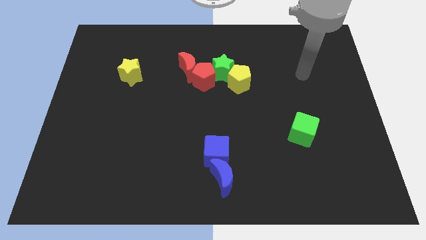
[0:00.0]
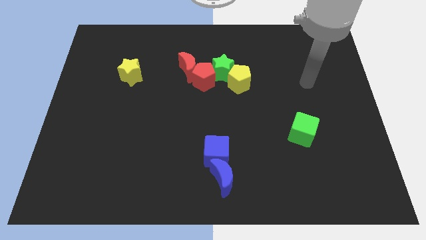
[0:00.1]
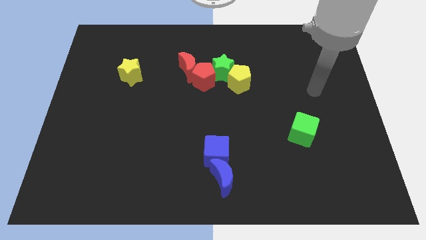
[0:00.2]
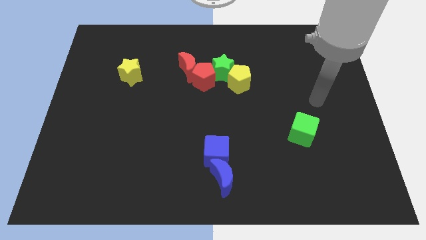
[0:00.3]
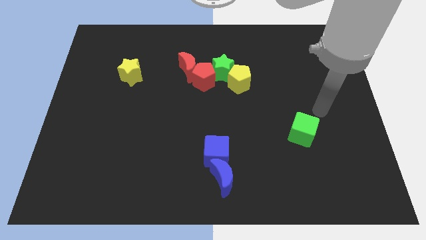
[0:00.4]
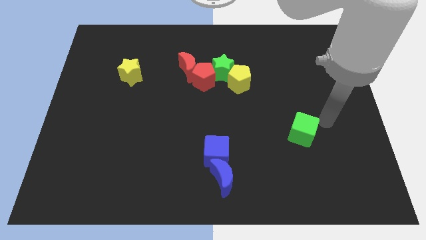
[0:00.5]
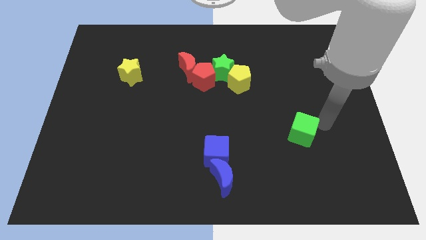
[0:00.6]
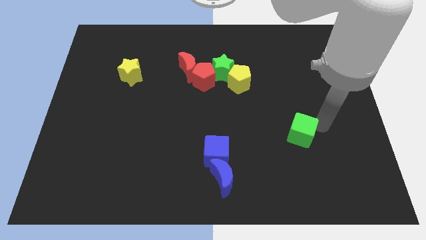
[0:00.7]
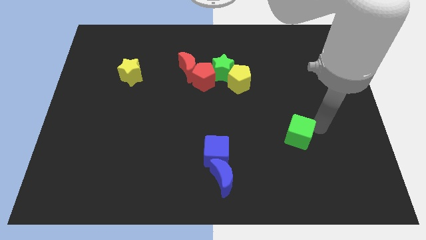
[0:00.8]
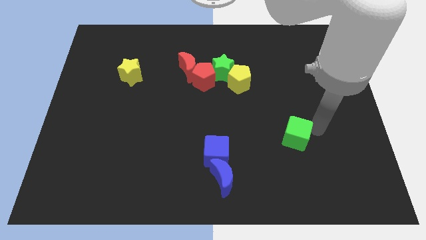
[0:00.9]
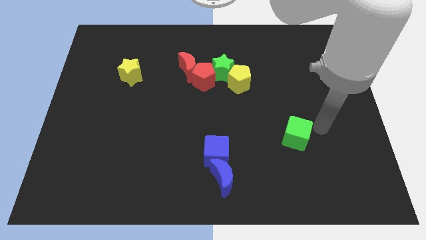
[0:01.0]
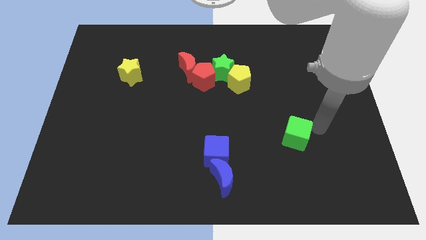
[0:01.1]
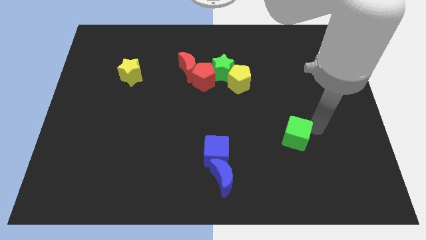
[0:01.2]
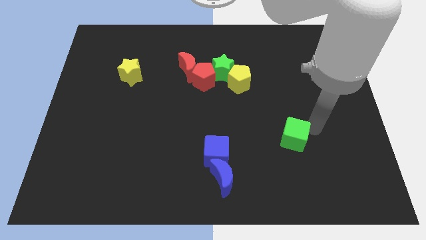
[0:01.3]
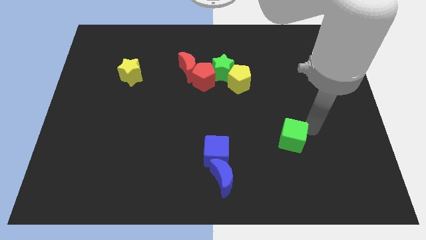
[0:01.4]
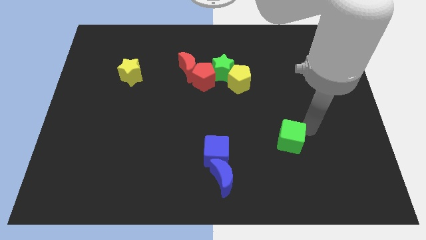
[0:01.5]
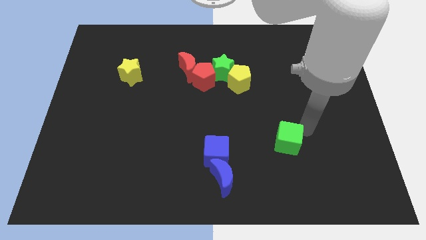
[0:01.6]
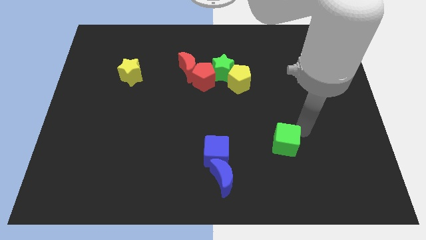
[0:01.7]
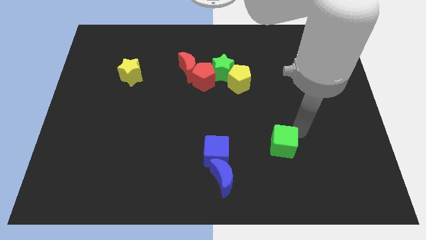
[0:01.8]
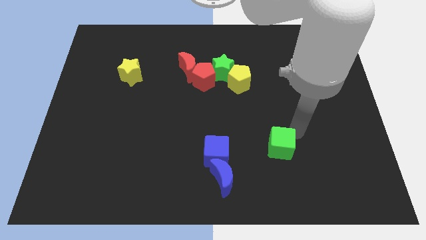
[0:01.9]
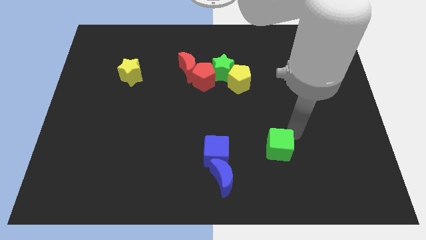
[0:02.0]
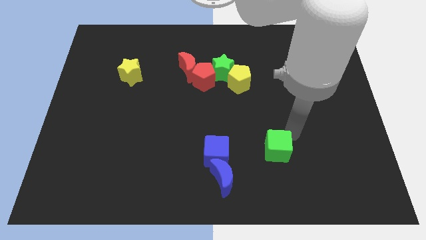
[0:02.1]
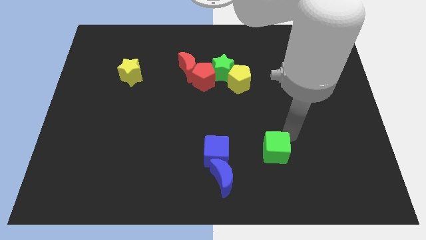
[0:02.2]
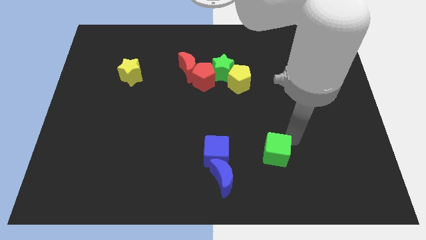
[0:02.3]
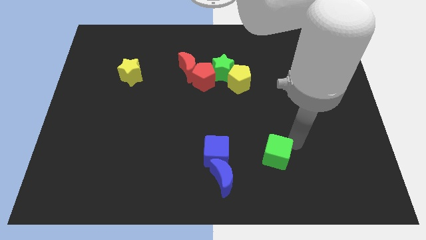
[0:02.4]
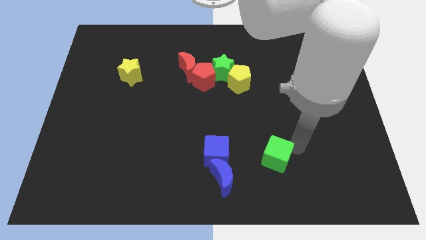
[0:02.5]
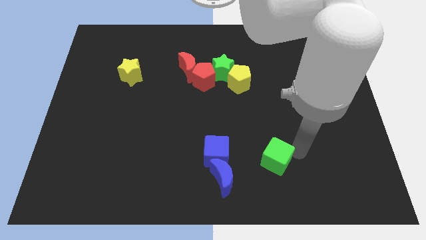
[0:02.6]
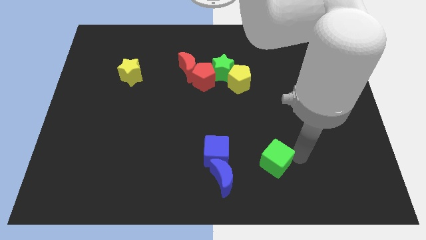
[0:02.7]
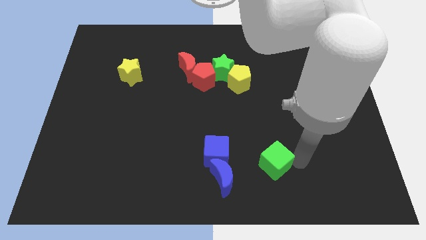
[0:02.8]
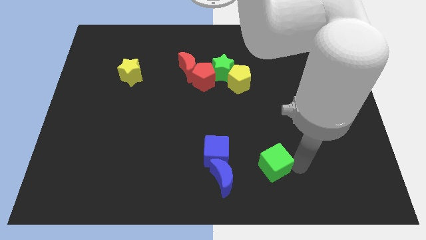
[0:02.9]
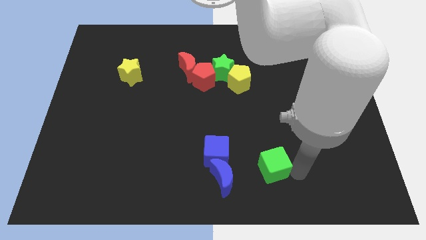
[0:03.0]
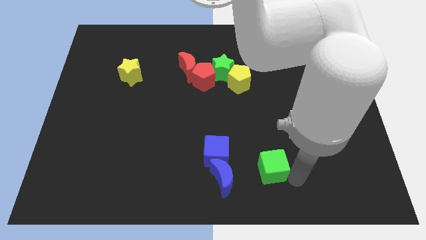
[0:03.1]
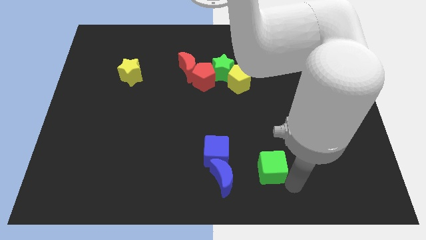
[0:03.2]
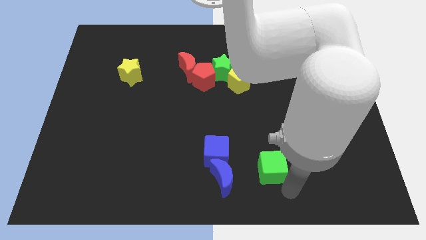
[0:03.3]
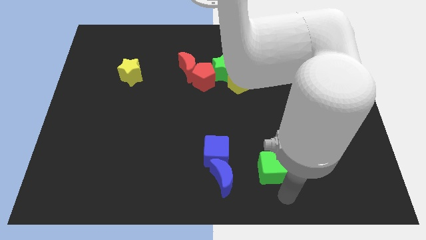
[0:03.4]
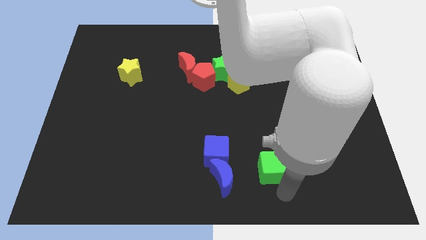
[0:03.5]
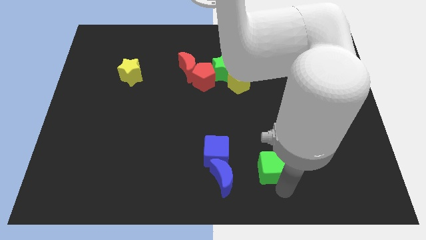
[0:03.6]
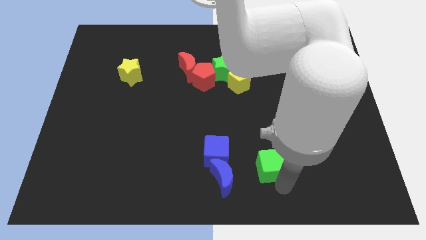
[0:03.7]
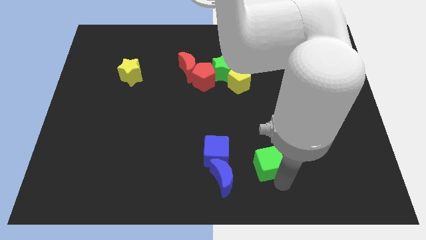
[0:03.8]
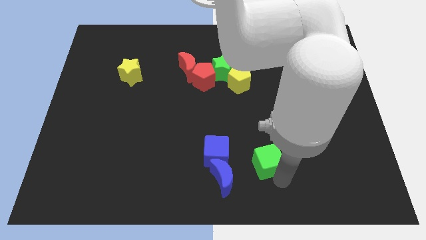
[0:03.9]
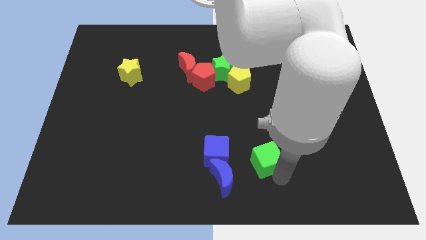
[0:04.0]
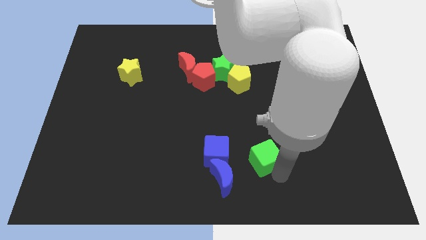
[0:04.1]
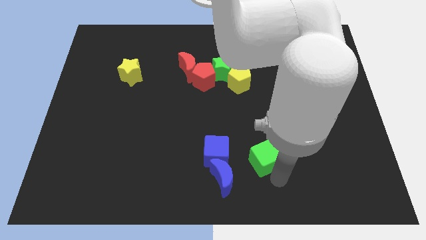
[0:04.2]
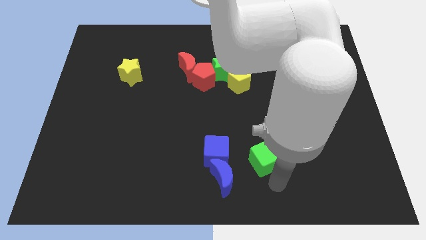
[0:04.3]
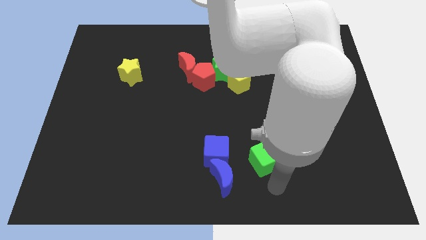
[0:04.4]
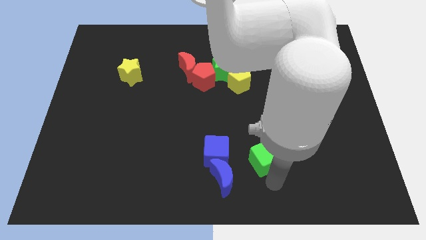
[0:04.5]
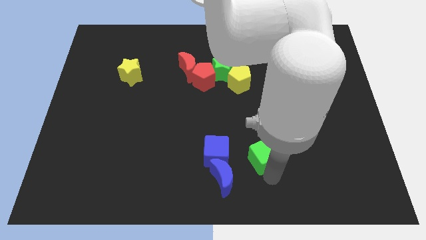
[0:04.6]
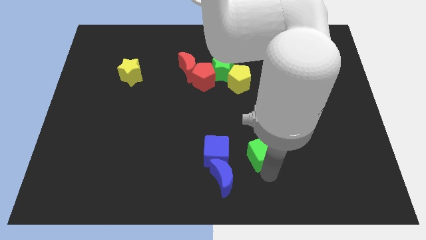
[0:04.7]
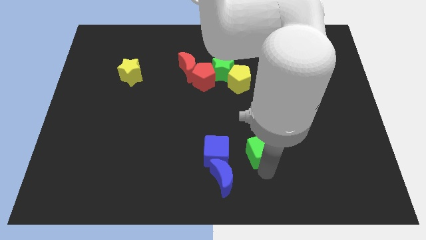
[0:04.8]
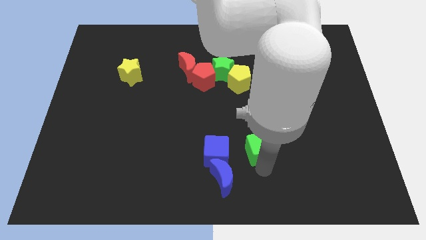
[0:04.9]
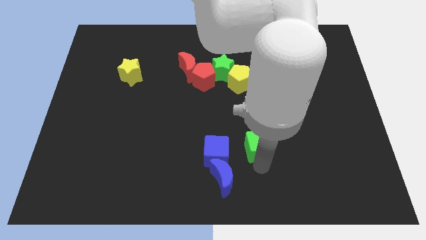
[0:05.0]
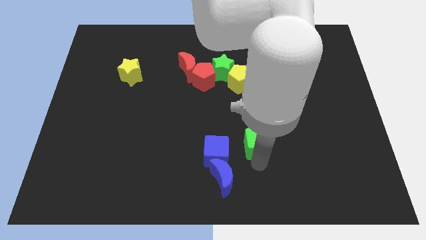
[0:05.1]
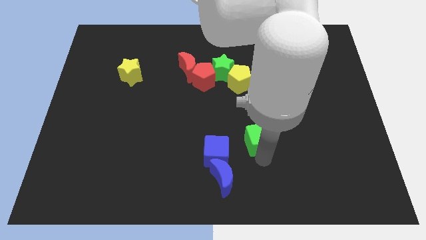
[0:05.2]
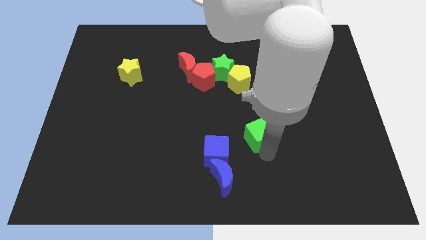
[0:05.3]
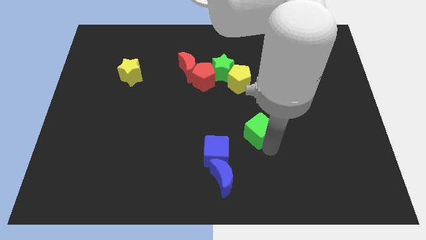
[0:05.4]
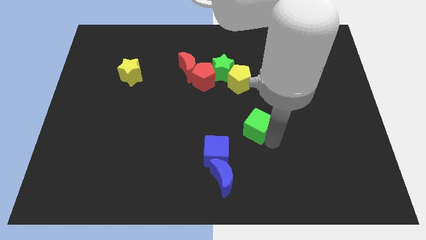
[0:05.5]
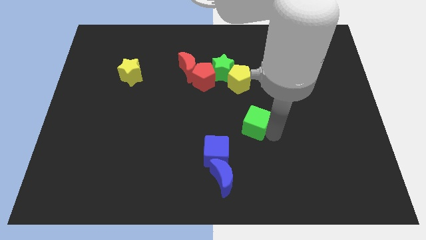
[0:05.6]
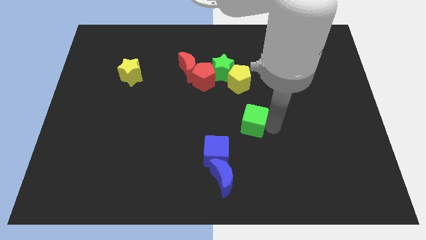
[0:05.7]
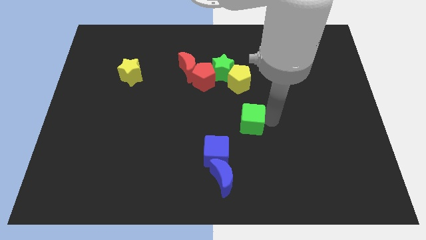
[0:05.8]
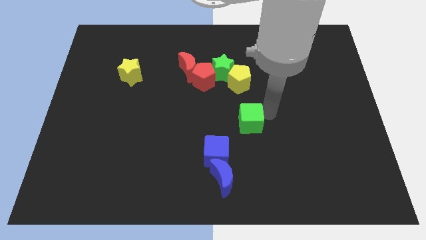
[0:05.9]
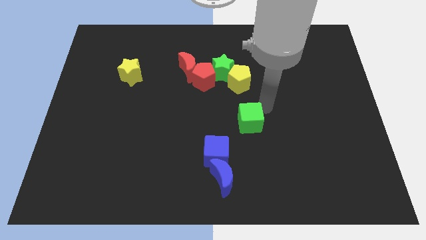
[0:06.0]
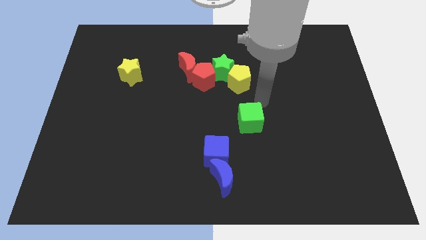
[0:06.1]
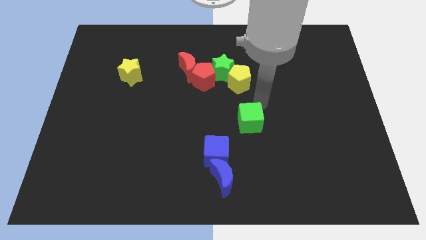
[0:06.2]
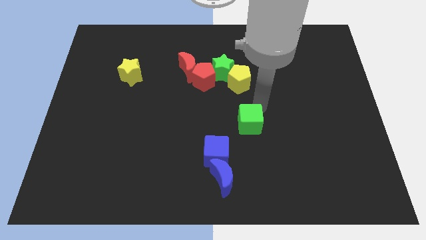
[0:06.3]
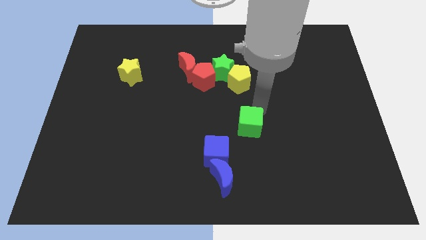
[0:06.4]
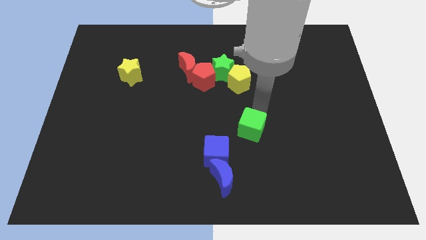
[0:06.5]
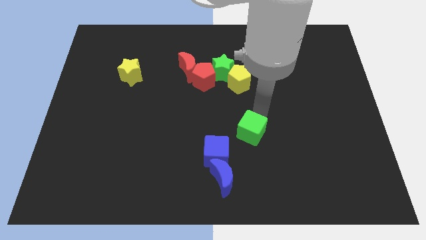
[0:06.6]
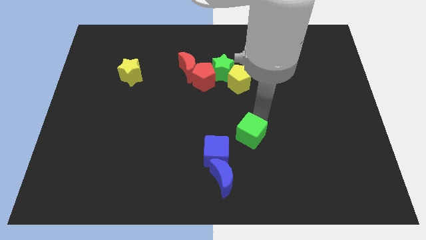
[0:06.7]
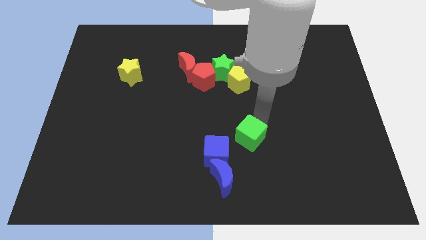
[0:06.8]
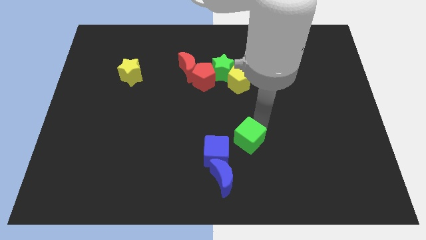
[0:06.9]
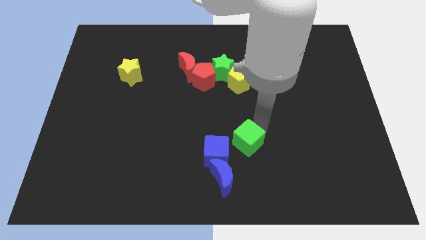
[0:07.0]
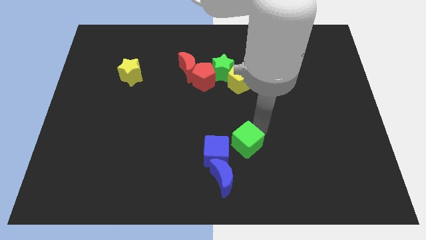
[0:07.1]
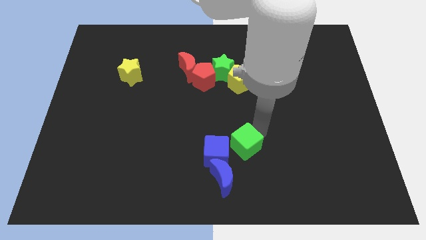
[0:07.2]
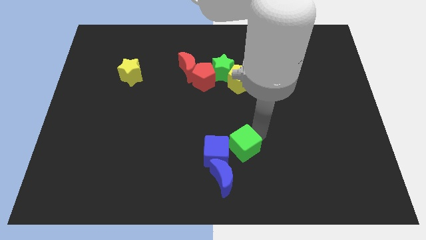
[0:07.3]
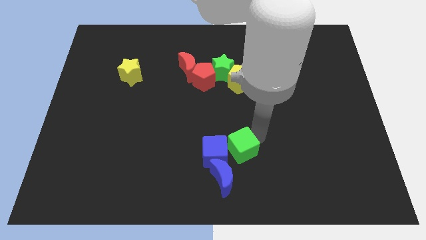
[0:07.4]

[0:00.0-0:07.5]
move the green cube to the blue cube

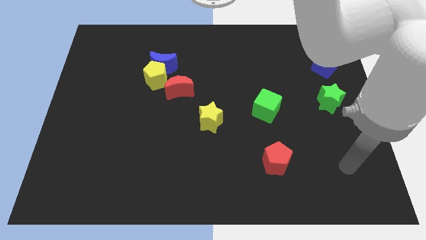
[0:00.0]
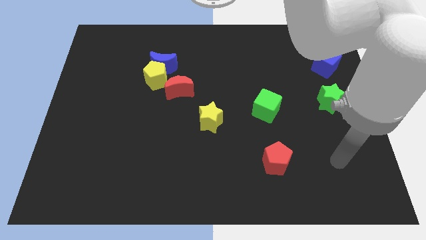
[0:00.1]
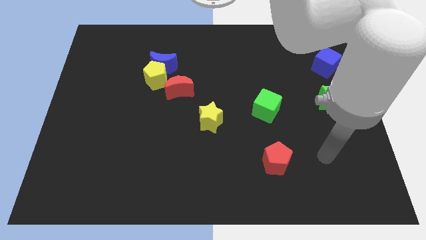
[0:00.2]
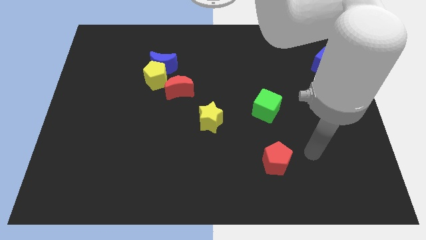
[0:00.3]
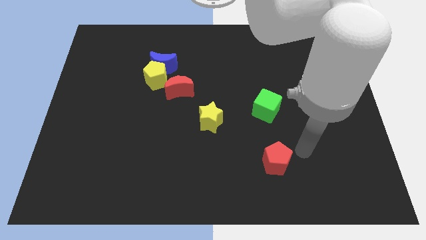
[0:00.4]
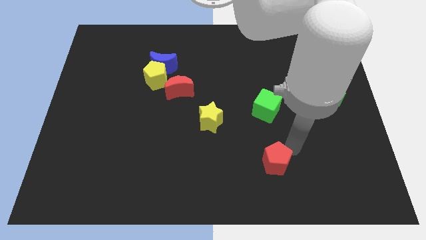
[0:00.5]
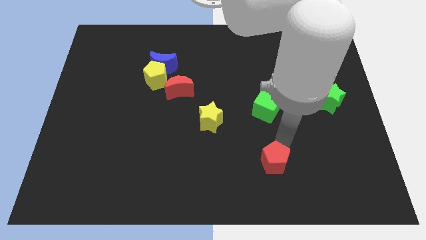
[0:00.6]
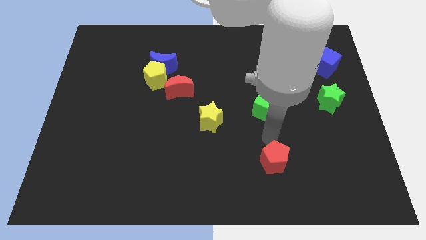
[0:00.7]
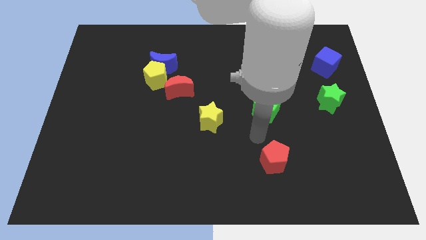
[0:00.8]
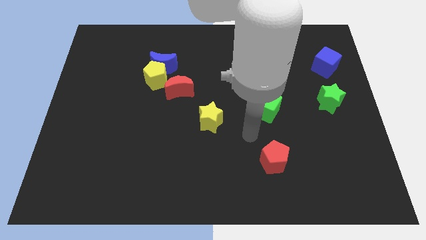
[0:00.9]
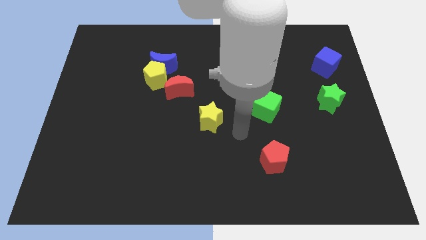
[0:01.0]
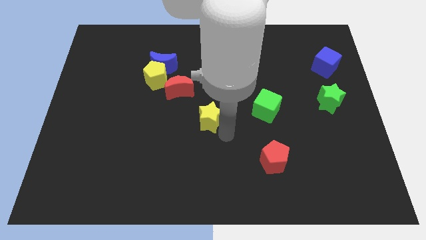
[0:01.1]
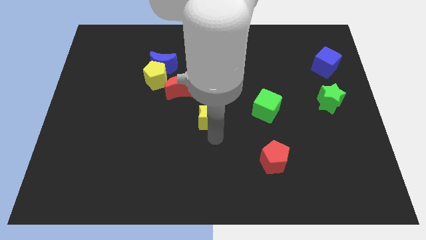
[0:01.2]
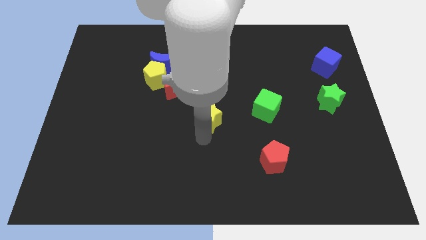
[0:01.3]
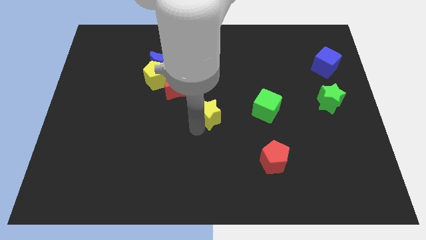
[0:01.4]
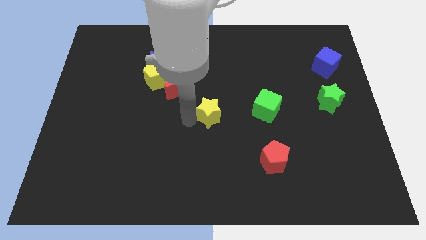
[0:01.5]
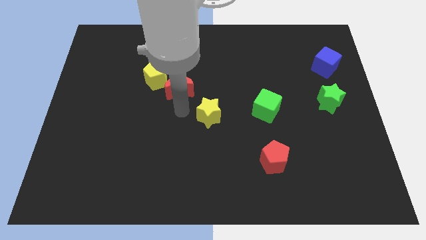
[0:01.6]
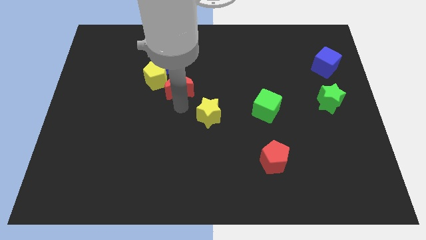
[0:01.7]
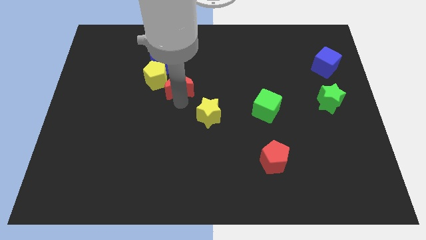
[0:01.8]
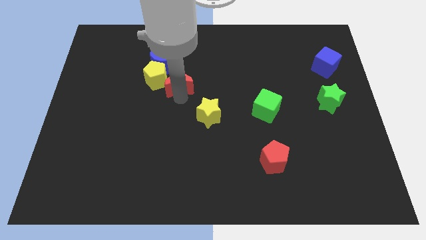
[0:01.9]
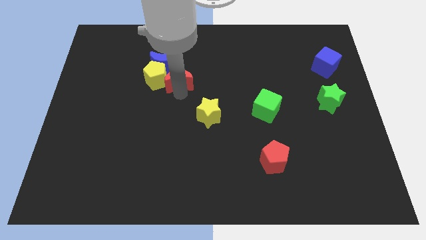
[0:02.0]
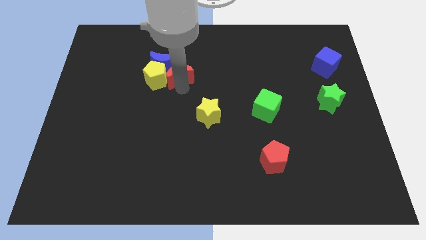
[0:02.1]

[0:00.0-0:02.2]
slide the red moon to the blue moon
